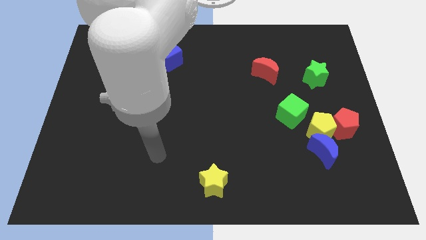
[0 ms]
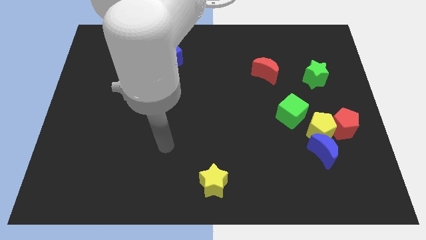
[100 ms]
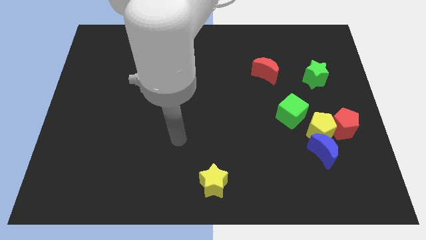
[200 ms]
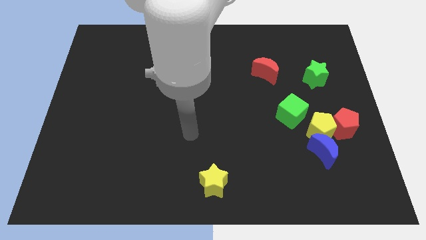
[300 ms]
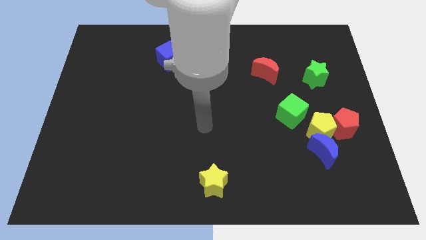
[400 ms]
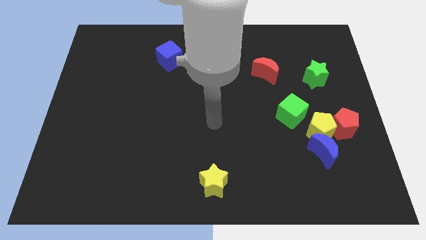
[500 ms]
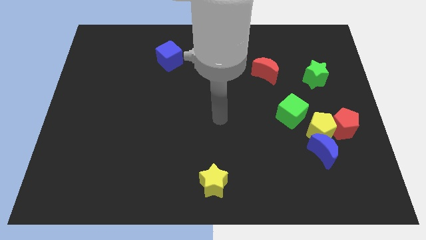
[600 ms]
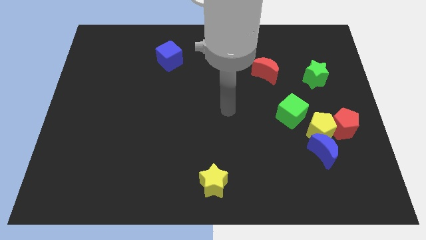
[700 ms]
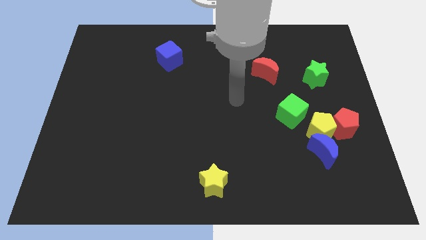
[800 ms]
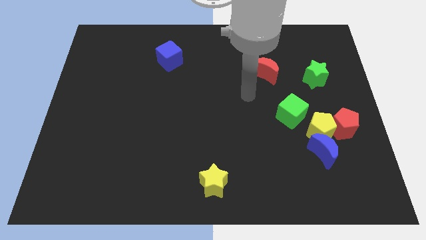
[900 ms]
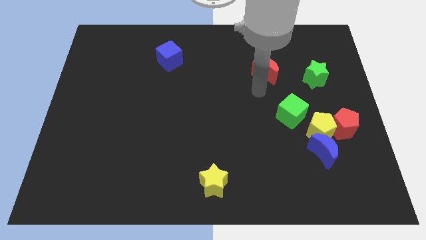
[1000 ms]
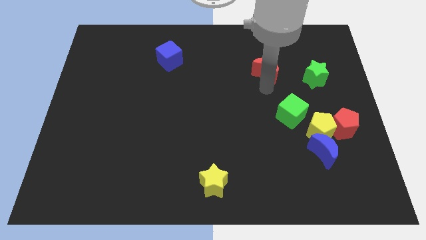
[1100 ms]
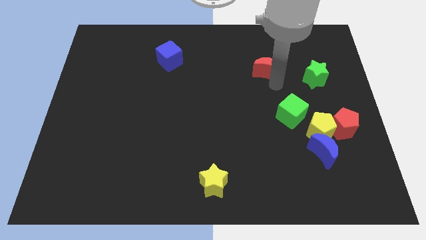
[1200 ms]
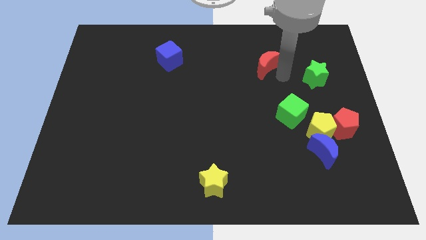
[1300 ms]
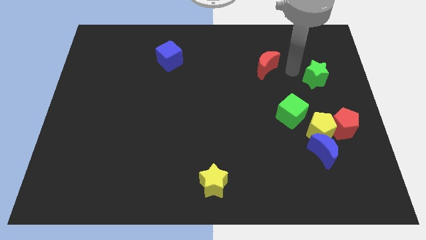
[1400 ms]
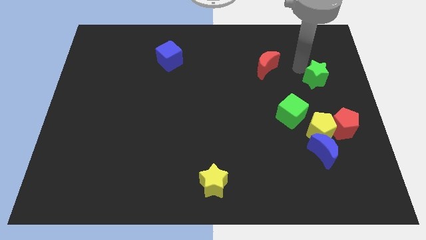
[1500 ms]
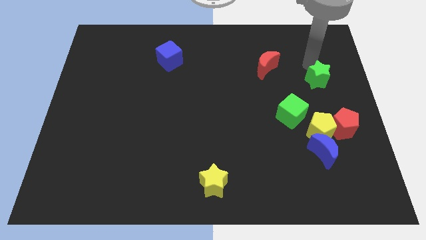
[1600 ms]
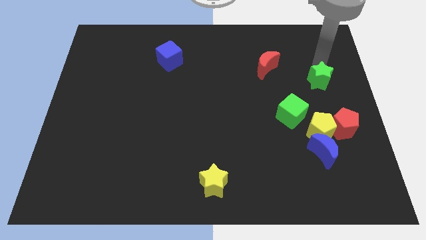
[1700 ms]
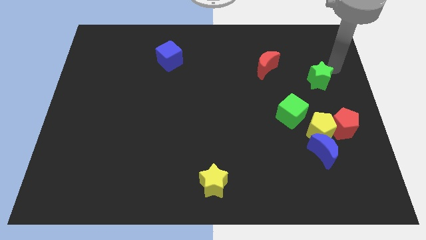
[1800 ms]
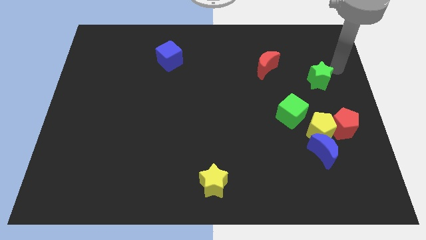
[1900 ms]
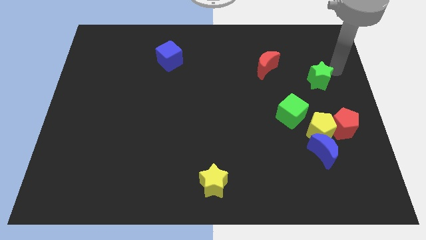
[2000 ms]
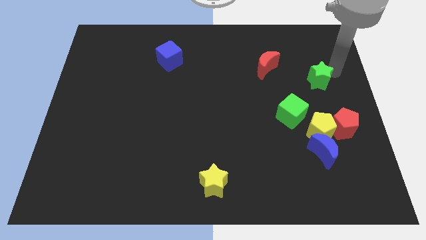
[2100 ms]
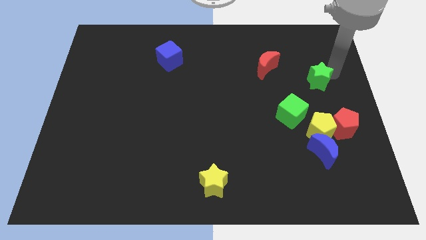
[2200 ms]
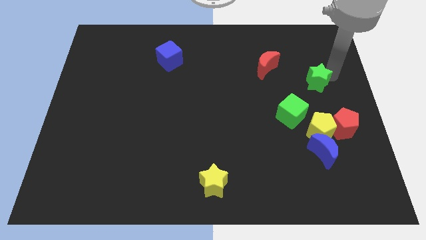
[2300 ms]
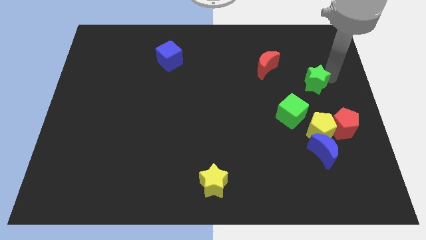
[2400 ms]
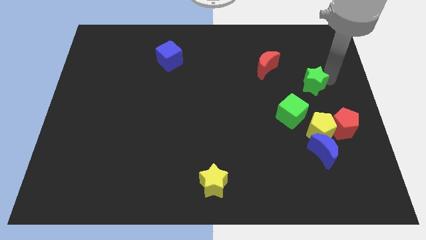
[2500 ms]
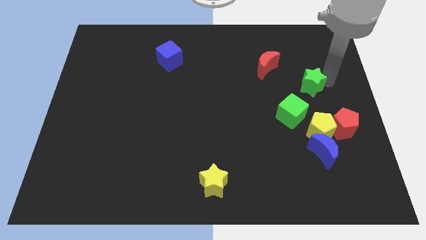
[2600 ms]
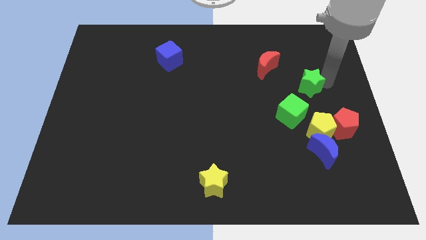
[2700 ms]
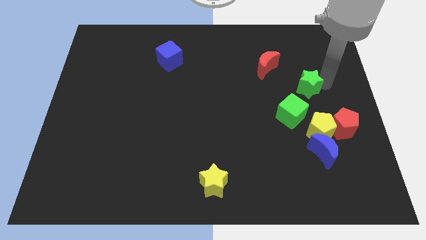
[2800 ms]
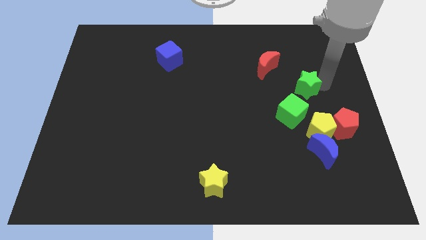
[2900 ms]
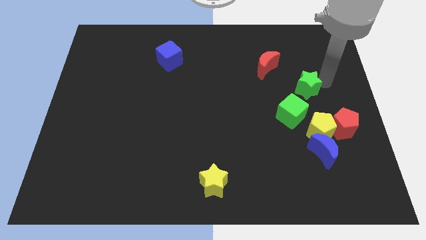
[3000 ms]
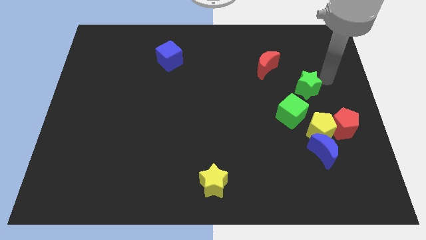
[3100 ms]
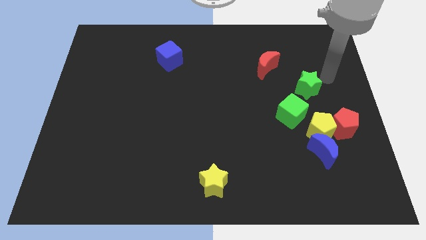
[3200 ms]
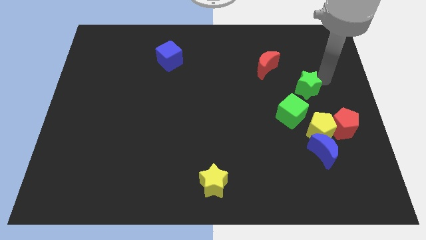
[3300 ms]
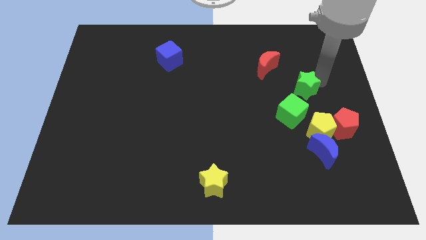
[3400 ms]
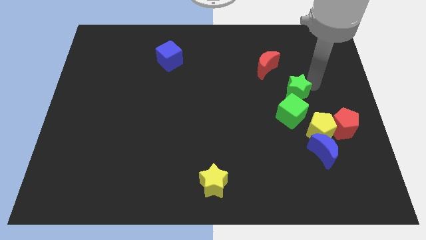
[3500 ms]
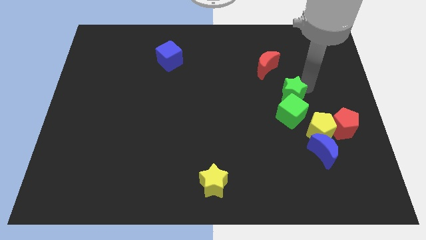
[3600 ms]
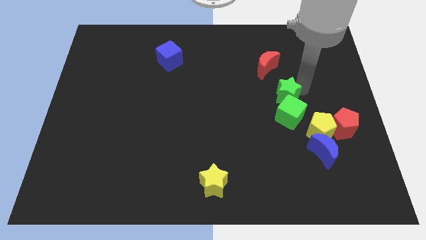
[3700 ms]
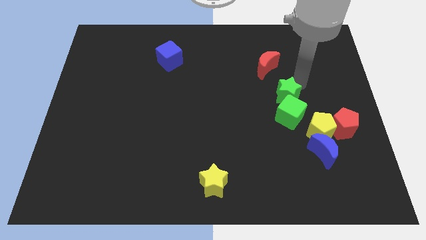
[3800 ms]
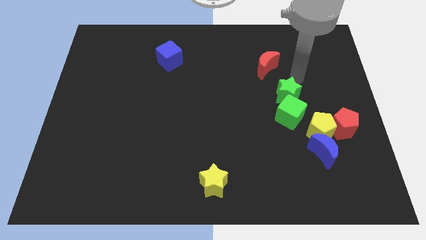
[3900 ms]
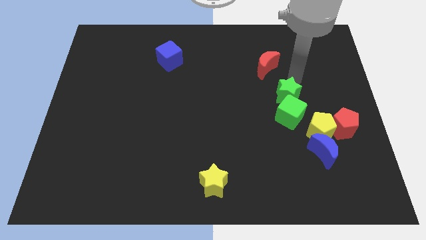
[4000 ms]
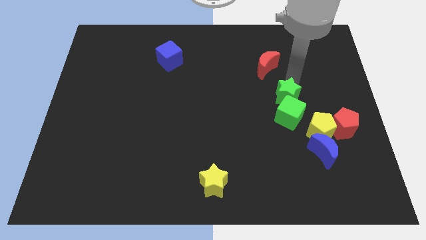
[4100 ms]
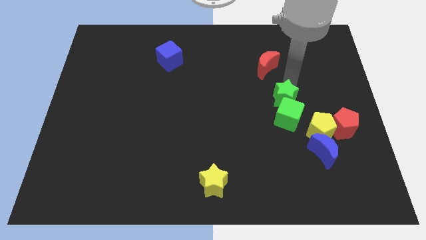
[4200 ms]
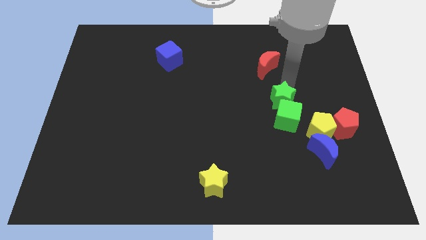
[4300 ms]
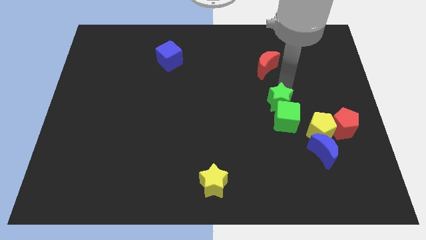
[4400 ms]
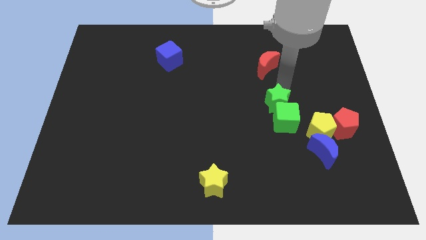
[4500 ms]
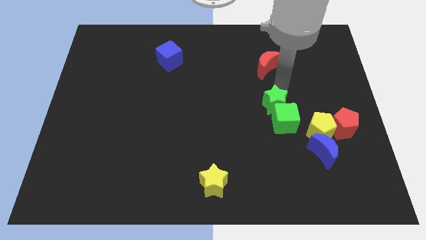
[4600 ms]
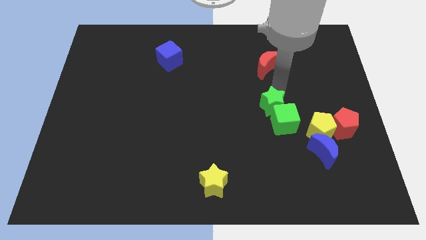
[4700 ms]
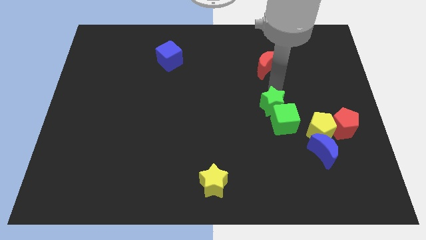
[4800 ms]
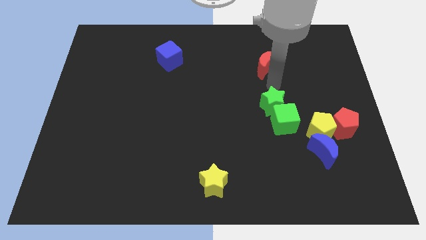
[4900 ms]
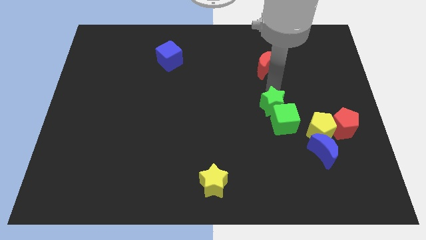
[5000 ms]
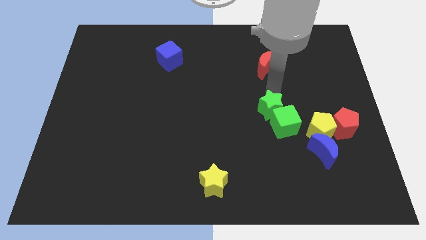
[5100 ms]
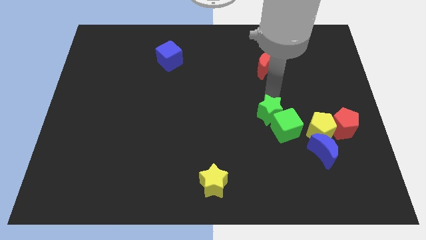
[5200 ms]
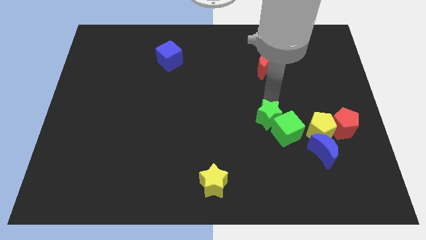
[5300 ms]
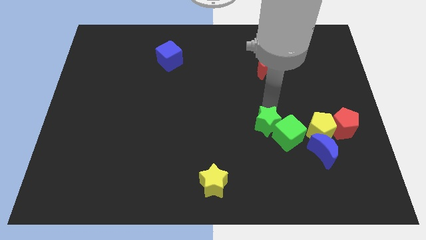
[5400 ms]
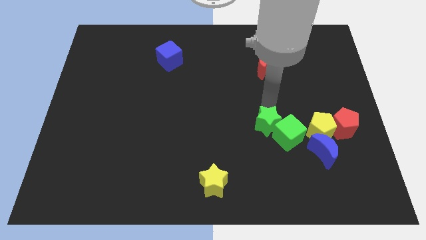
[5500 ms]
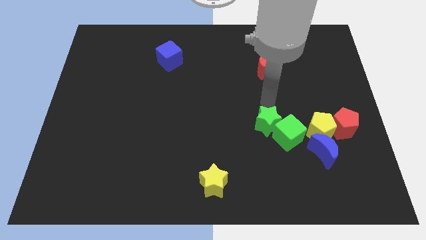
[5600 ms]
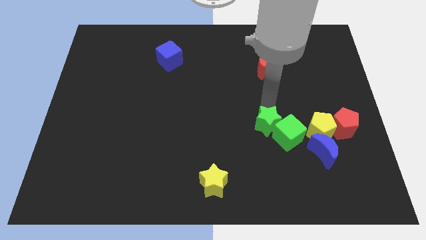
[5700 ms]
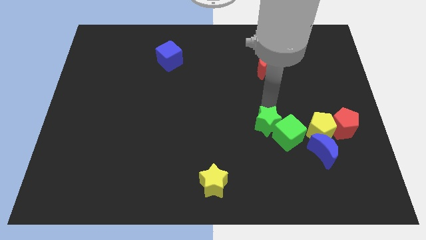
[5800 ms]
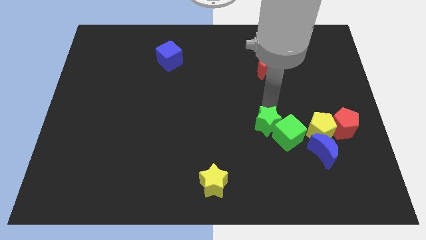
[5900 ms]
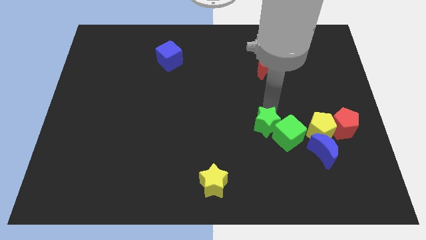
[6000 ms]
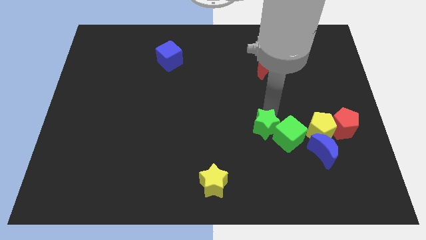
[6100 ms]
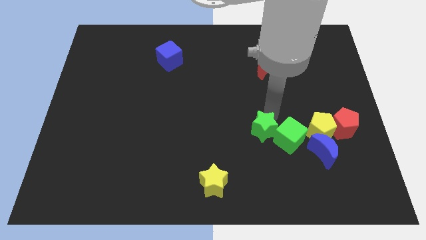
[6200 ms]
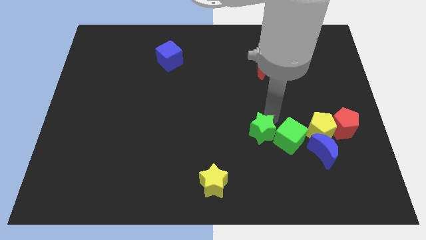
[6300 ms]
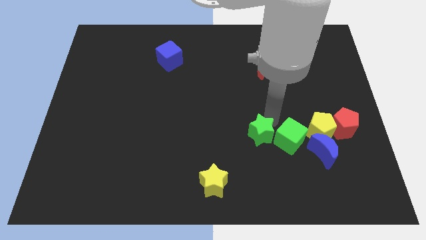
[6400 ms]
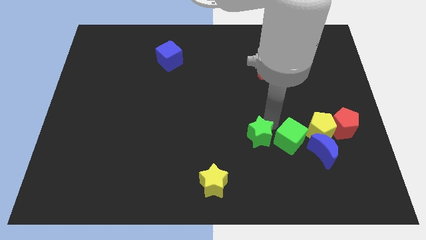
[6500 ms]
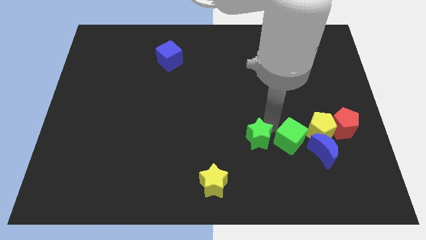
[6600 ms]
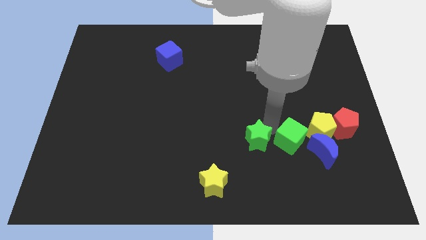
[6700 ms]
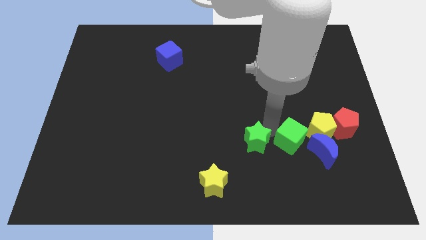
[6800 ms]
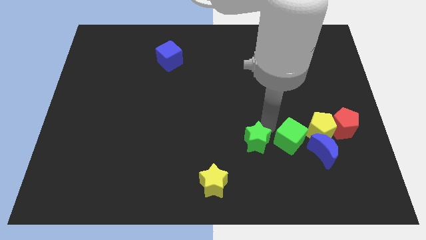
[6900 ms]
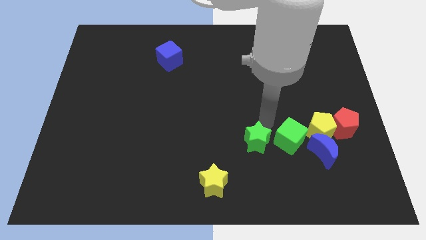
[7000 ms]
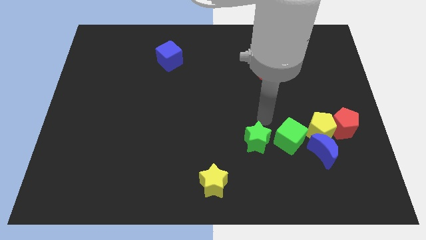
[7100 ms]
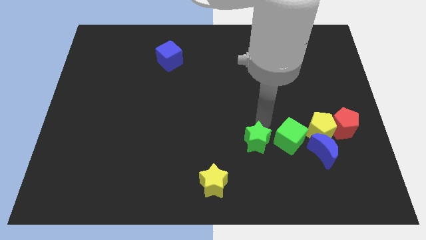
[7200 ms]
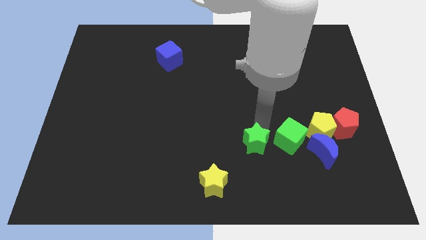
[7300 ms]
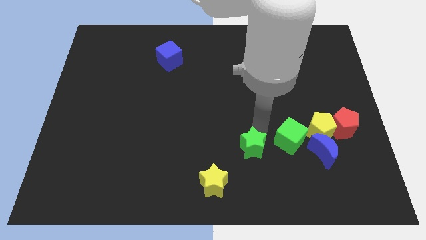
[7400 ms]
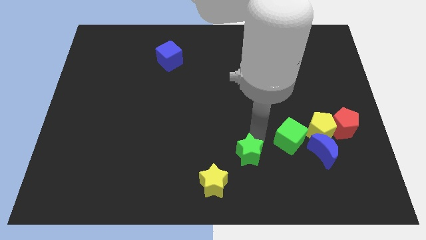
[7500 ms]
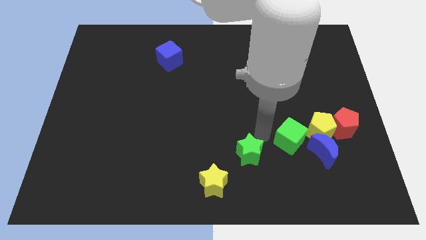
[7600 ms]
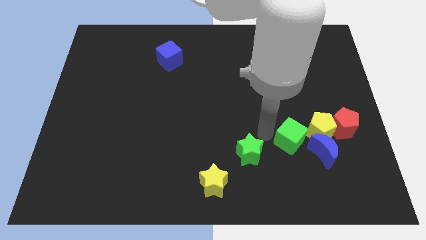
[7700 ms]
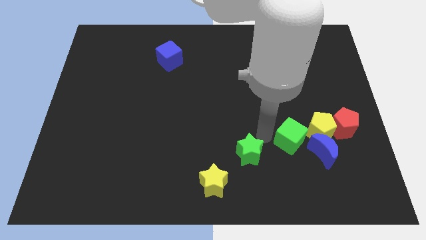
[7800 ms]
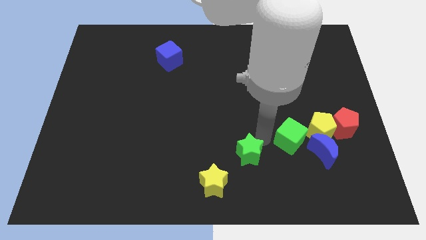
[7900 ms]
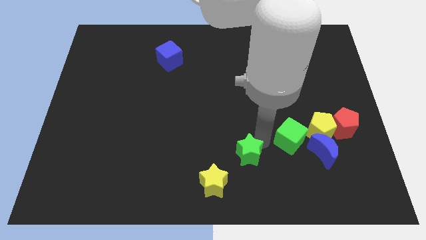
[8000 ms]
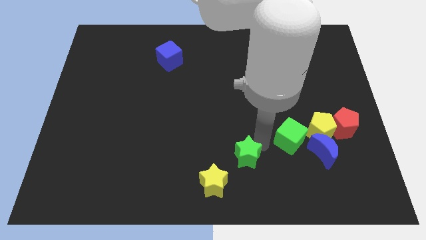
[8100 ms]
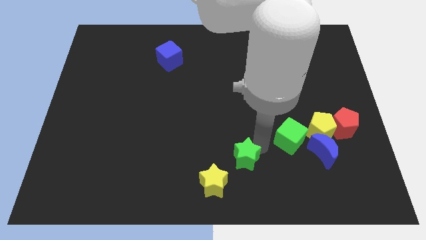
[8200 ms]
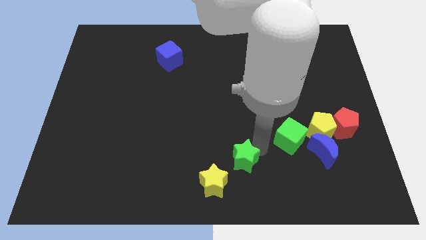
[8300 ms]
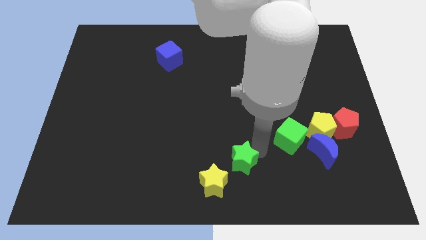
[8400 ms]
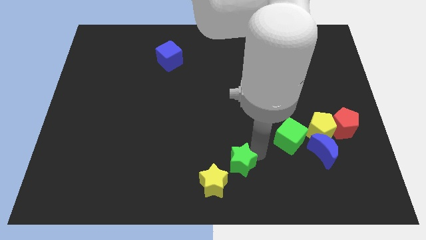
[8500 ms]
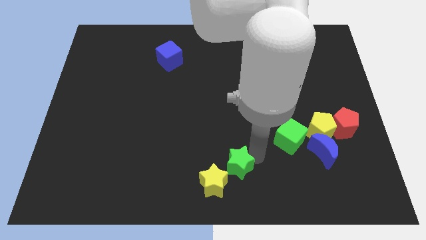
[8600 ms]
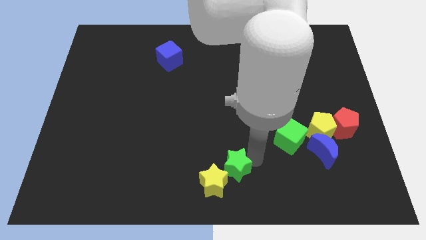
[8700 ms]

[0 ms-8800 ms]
move the green star to the yellow star
